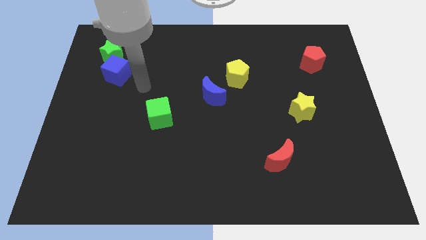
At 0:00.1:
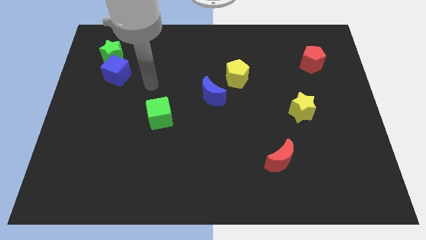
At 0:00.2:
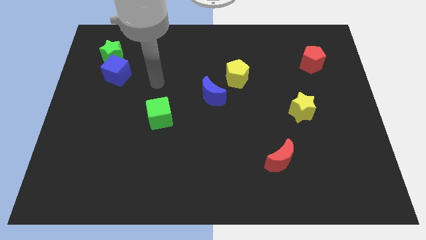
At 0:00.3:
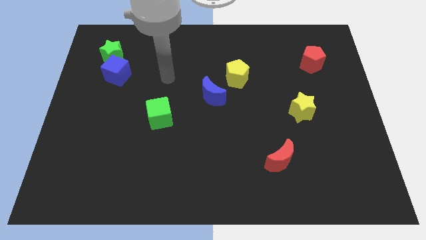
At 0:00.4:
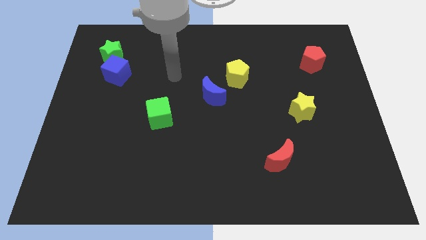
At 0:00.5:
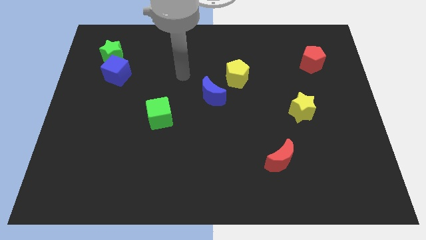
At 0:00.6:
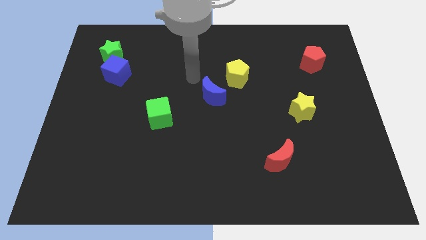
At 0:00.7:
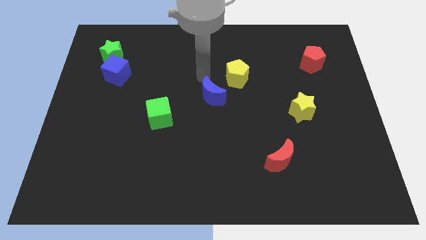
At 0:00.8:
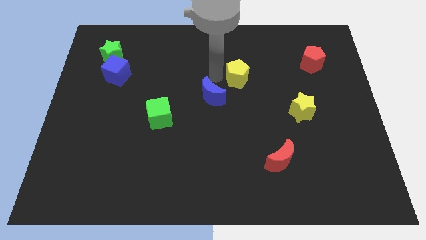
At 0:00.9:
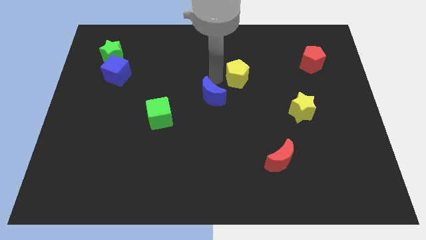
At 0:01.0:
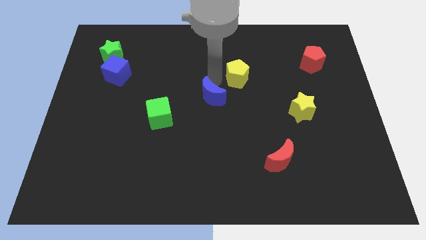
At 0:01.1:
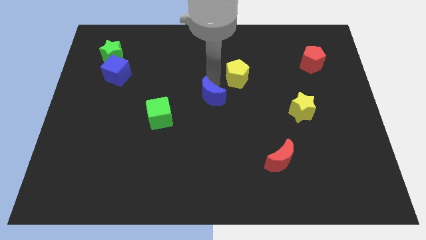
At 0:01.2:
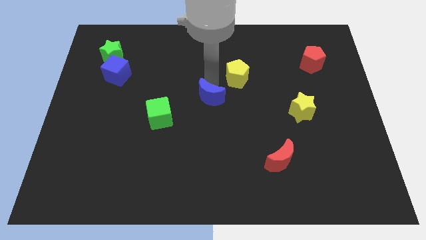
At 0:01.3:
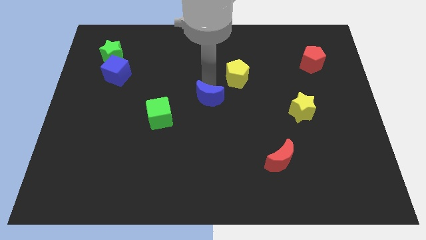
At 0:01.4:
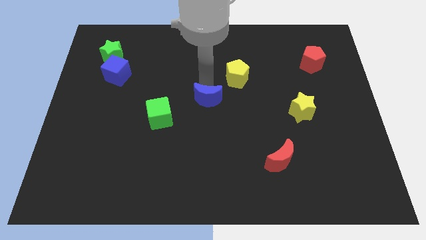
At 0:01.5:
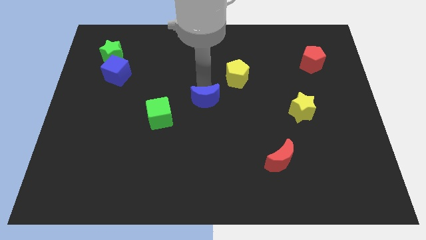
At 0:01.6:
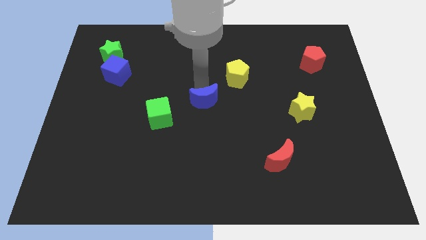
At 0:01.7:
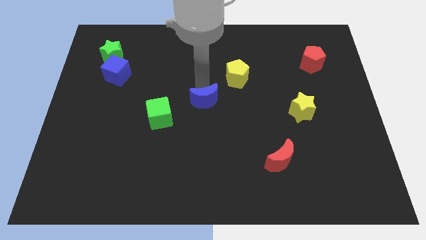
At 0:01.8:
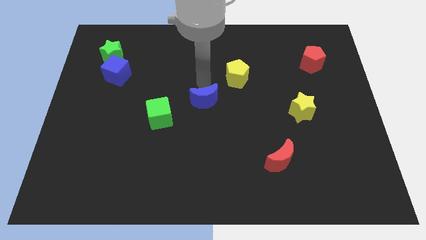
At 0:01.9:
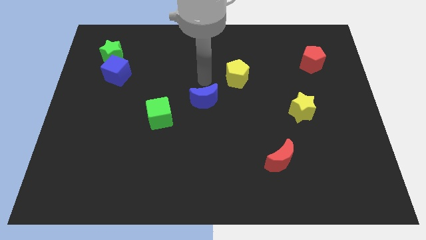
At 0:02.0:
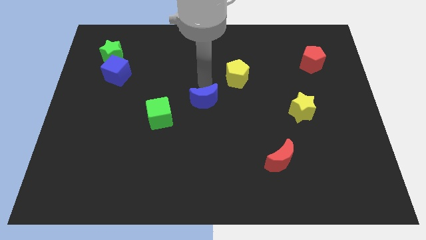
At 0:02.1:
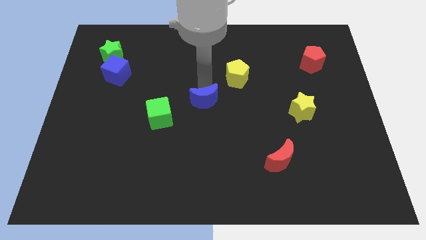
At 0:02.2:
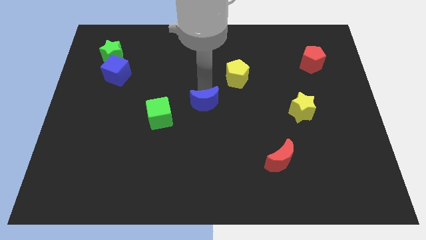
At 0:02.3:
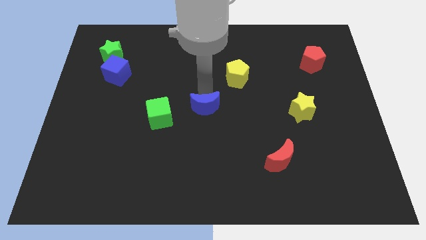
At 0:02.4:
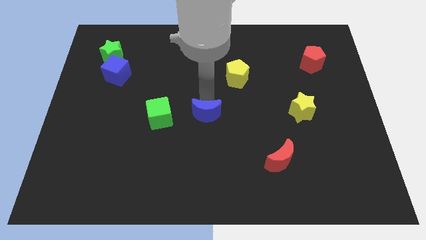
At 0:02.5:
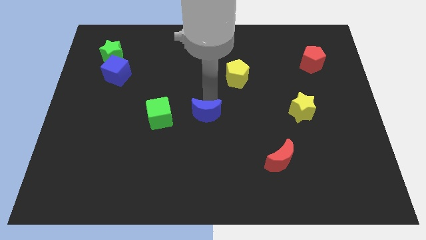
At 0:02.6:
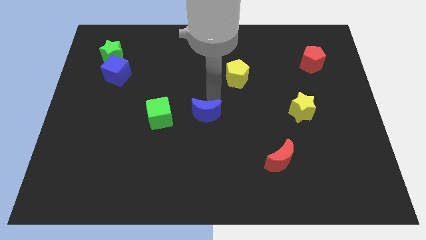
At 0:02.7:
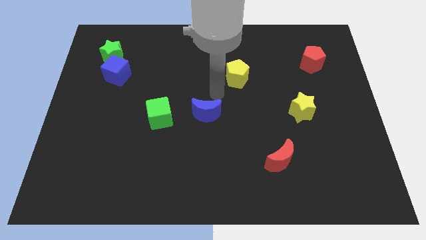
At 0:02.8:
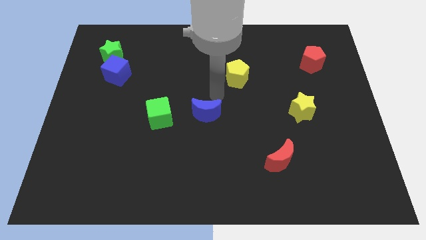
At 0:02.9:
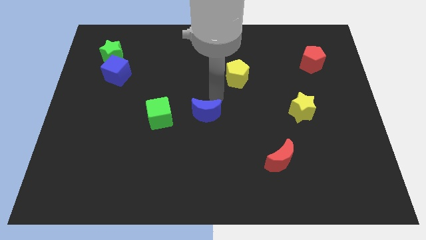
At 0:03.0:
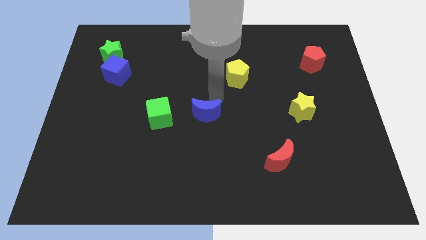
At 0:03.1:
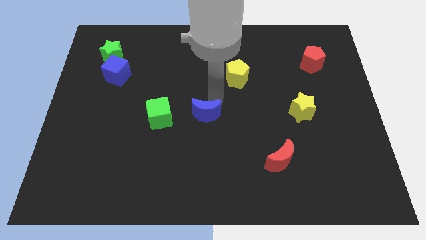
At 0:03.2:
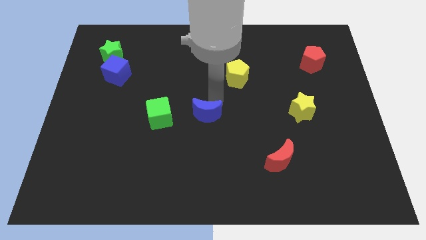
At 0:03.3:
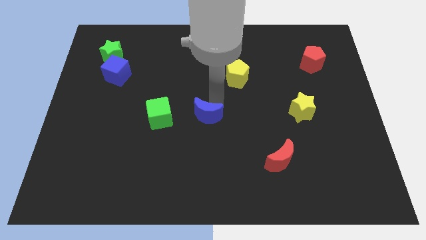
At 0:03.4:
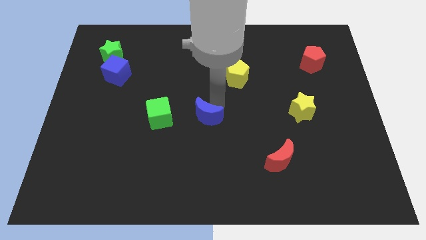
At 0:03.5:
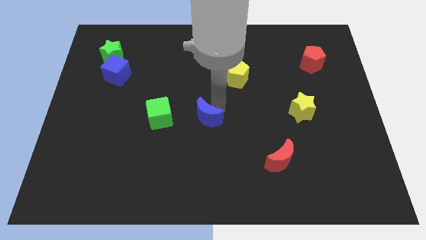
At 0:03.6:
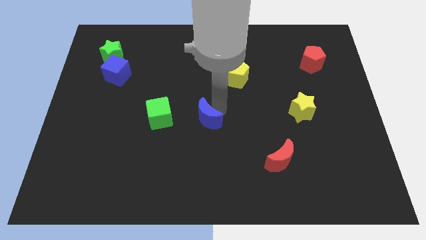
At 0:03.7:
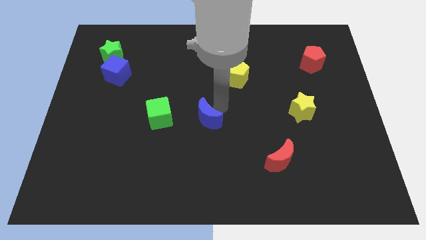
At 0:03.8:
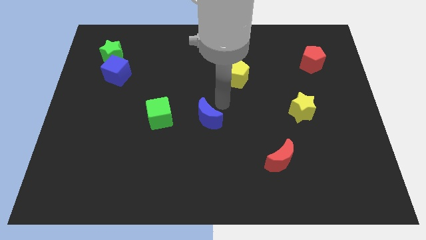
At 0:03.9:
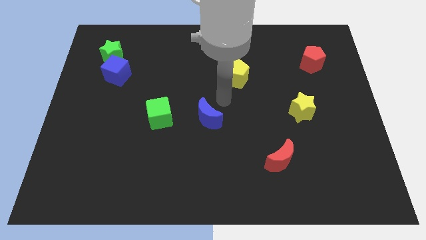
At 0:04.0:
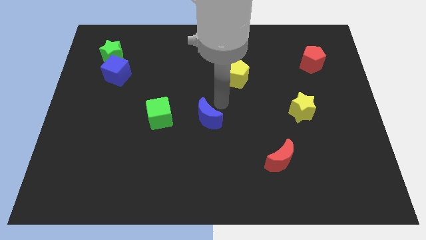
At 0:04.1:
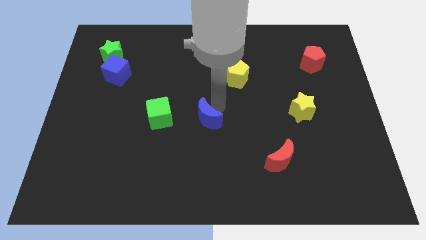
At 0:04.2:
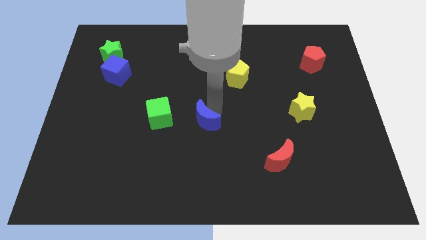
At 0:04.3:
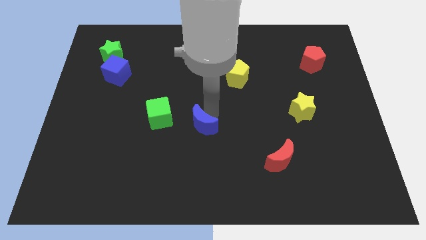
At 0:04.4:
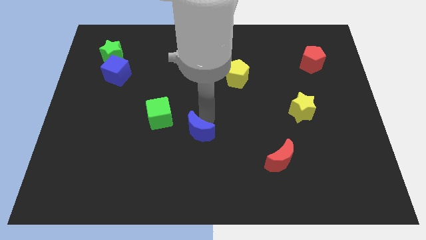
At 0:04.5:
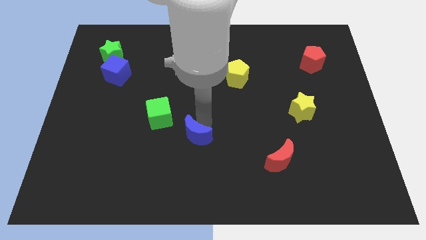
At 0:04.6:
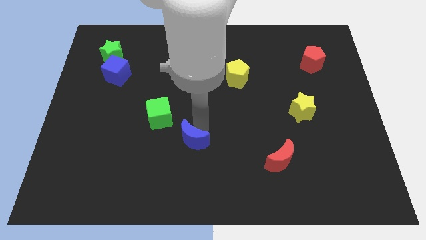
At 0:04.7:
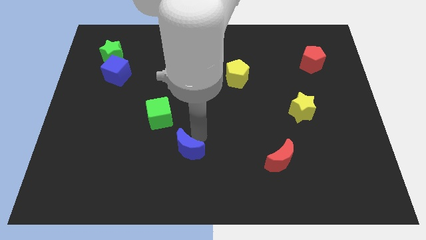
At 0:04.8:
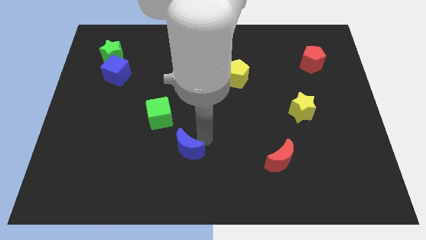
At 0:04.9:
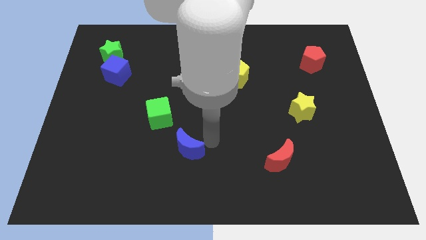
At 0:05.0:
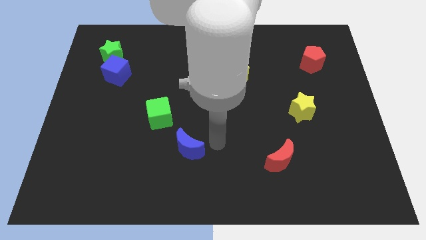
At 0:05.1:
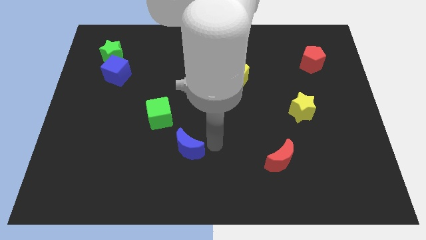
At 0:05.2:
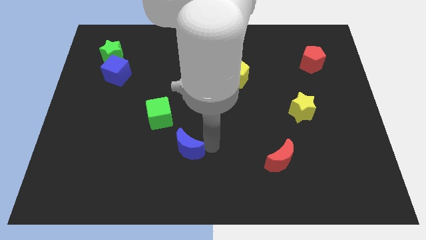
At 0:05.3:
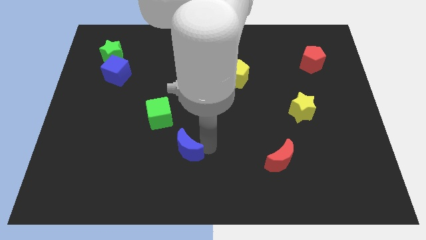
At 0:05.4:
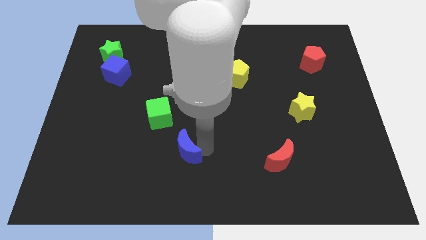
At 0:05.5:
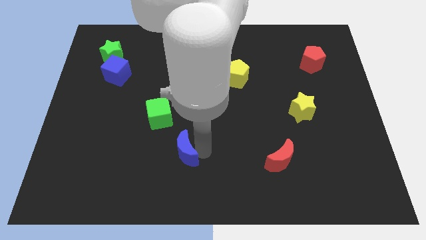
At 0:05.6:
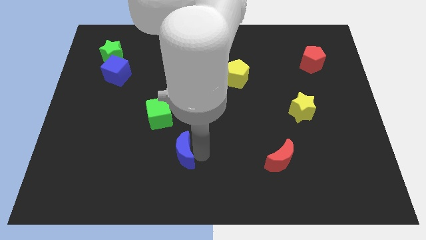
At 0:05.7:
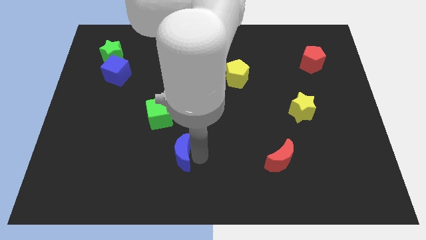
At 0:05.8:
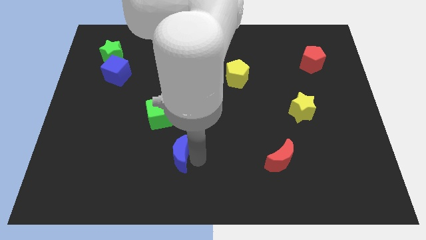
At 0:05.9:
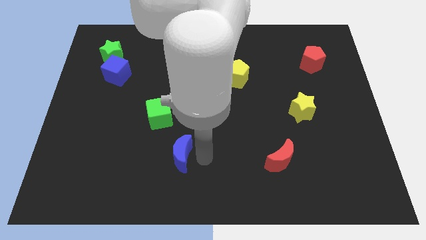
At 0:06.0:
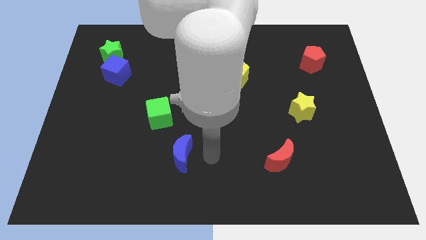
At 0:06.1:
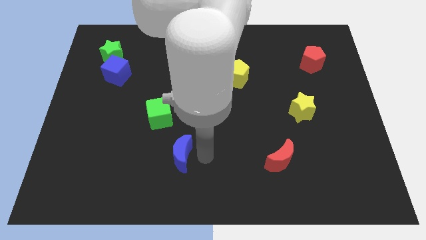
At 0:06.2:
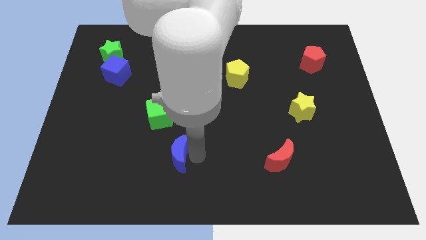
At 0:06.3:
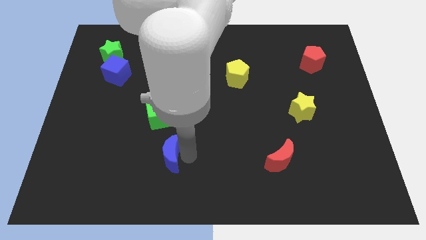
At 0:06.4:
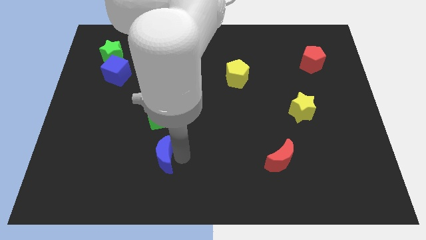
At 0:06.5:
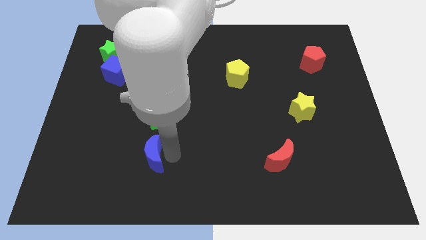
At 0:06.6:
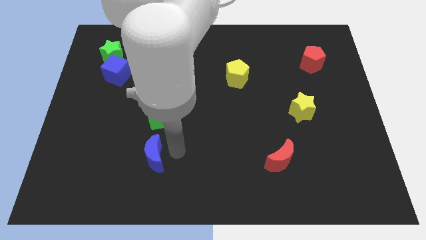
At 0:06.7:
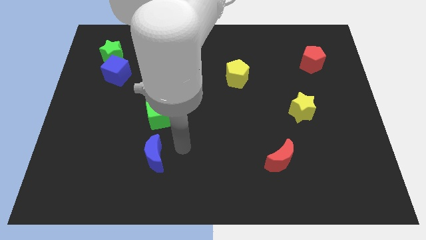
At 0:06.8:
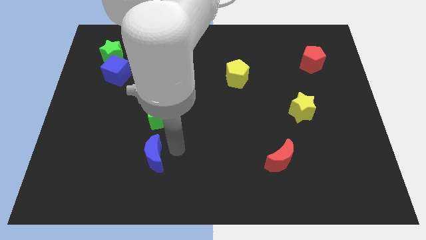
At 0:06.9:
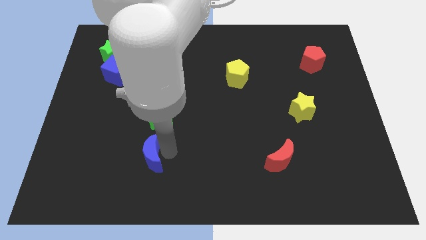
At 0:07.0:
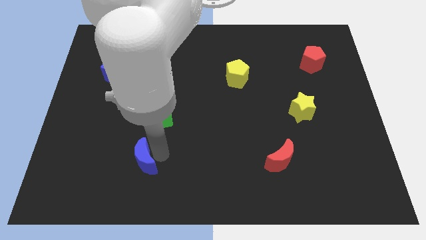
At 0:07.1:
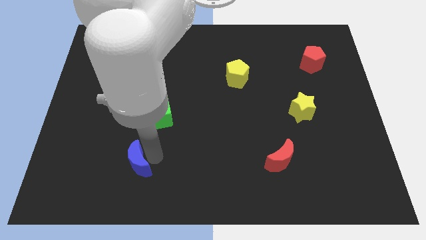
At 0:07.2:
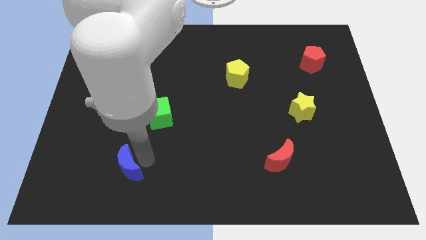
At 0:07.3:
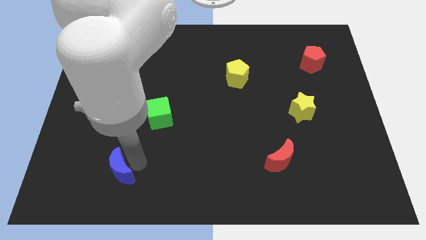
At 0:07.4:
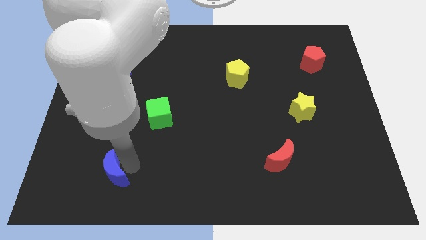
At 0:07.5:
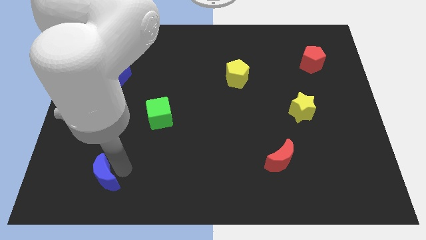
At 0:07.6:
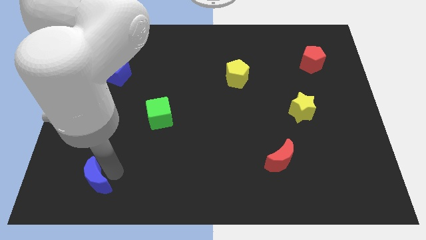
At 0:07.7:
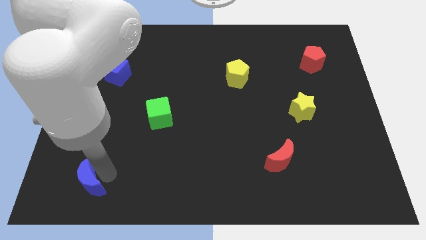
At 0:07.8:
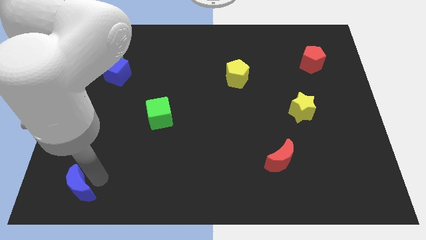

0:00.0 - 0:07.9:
move the blue moon to the bottom left
